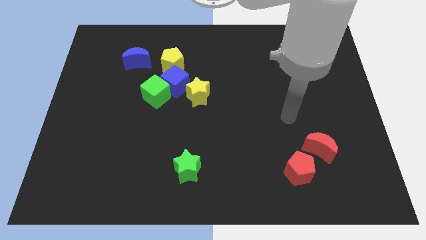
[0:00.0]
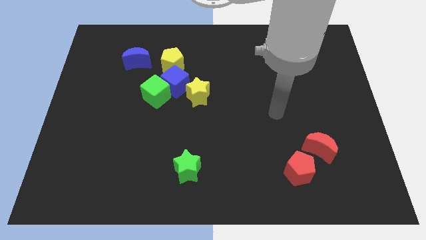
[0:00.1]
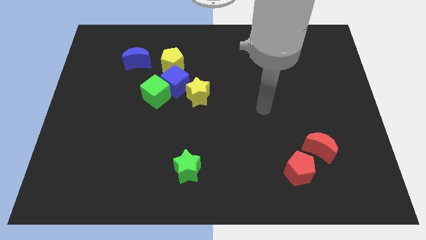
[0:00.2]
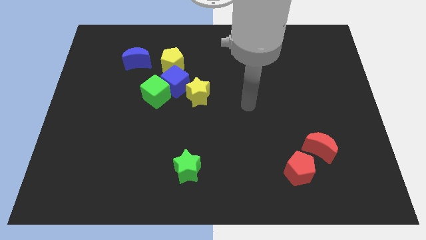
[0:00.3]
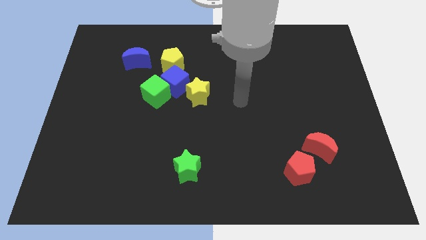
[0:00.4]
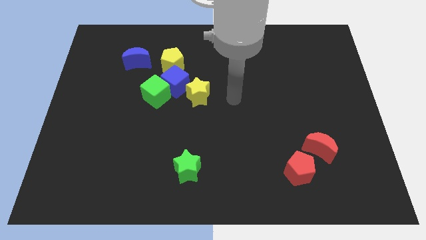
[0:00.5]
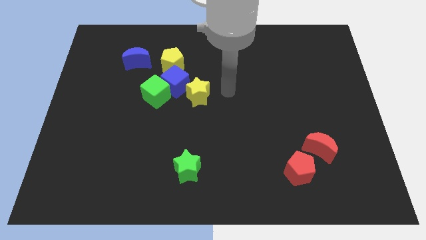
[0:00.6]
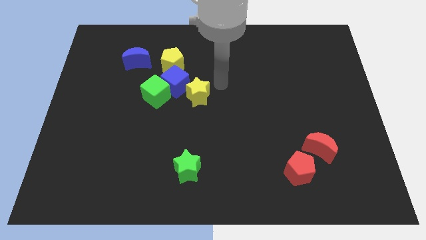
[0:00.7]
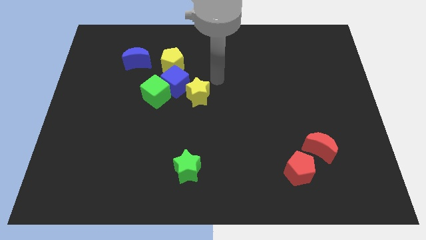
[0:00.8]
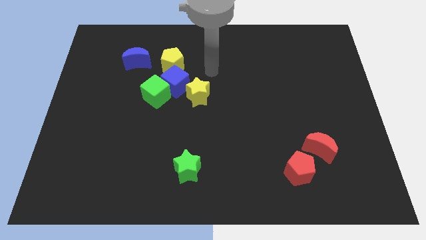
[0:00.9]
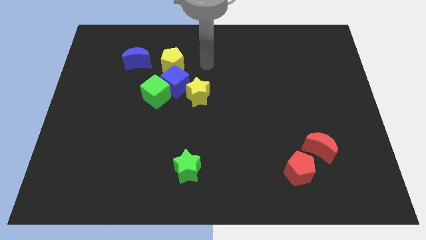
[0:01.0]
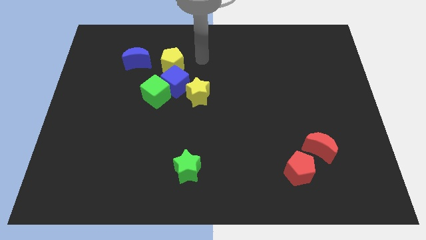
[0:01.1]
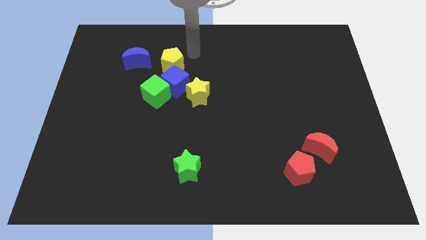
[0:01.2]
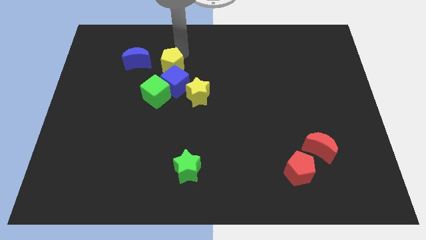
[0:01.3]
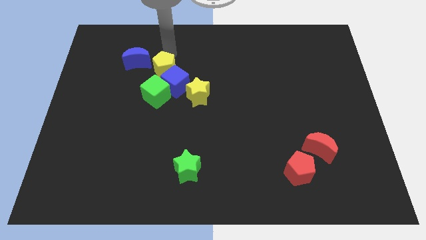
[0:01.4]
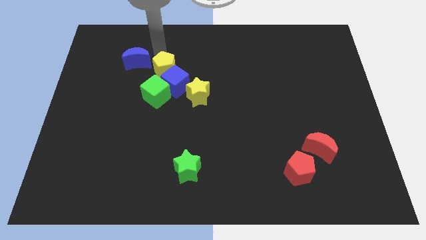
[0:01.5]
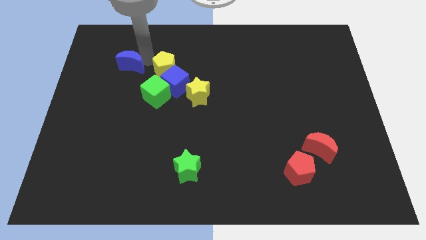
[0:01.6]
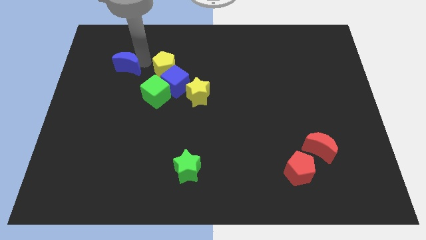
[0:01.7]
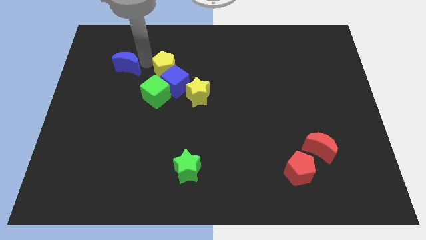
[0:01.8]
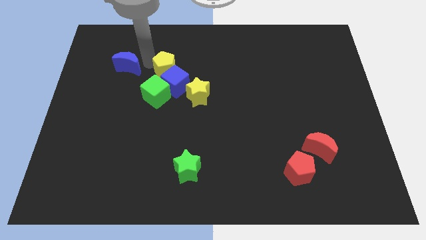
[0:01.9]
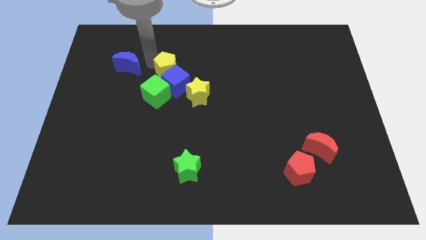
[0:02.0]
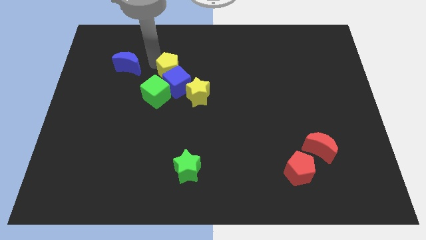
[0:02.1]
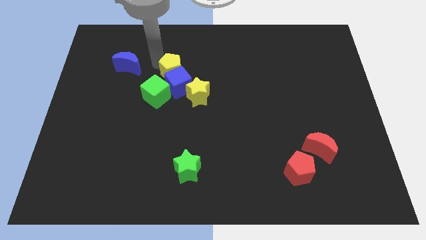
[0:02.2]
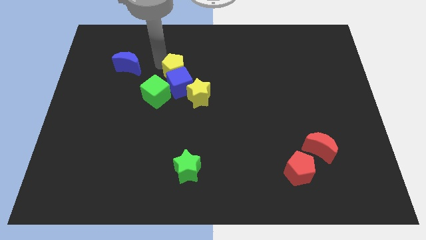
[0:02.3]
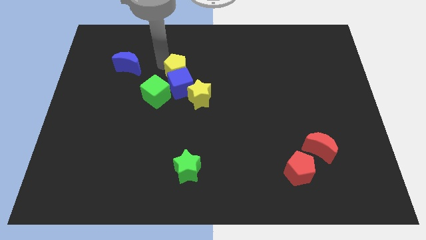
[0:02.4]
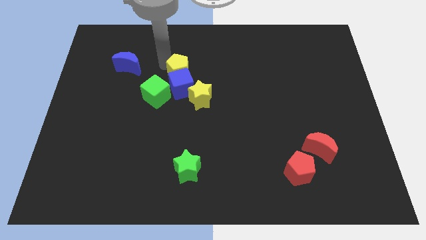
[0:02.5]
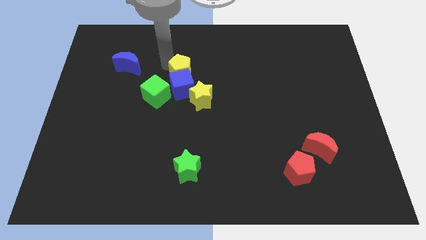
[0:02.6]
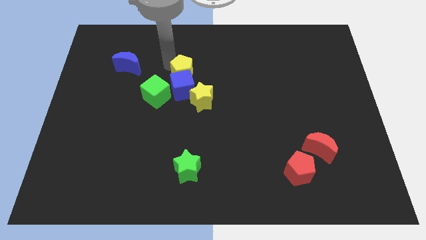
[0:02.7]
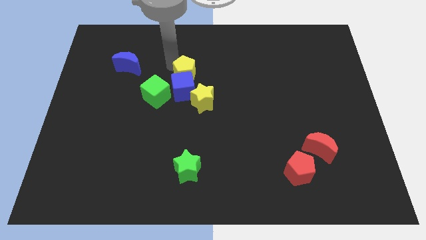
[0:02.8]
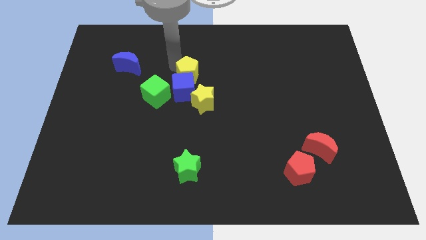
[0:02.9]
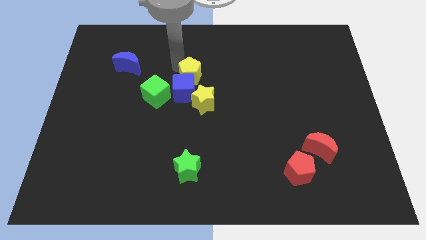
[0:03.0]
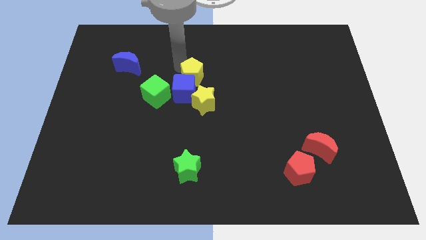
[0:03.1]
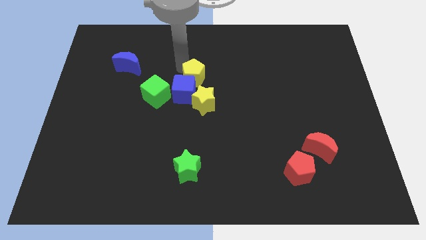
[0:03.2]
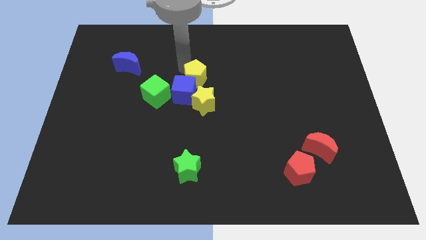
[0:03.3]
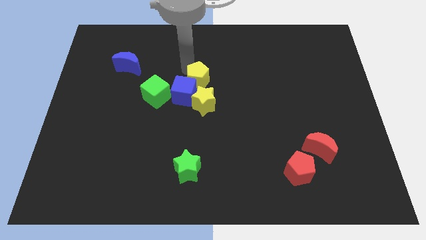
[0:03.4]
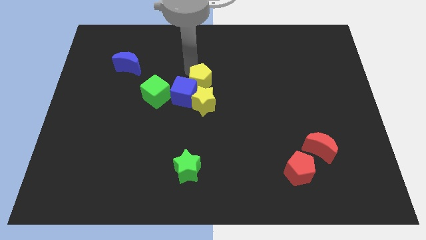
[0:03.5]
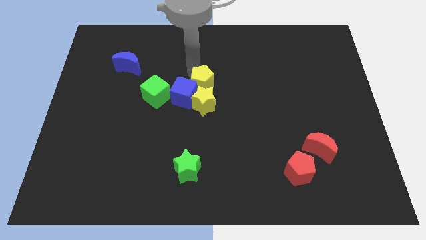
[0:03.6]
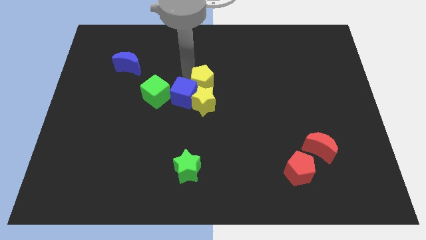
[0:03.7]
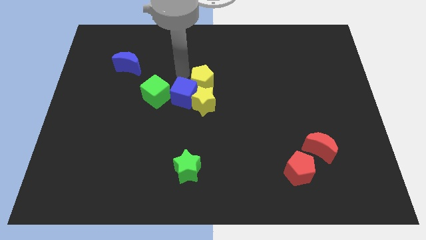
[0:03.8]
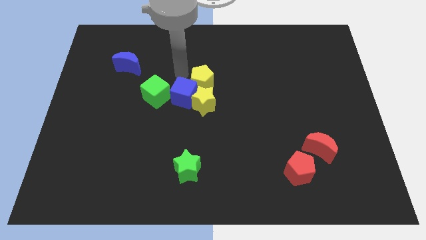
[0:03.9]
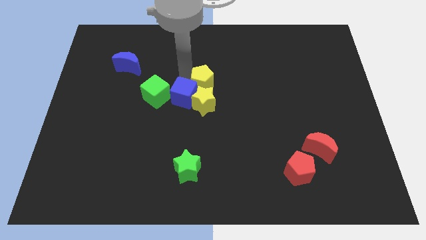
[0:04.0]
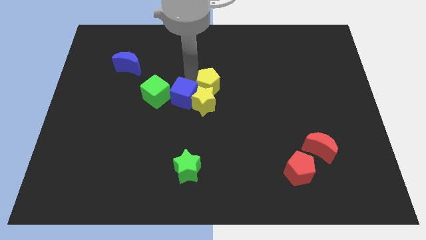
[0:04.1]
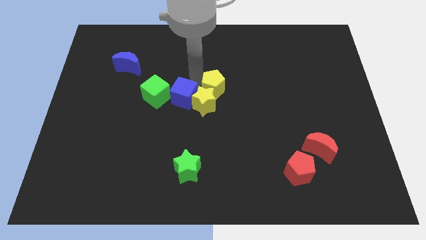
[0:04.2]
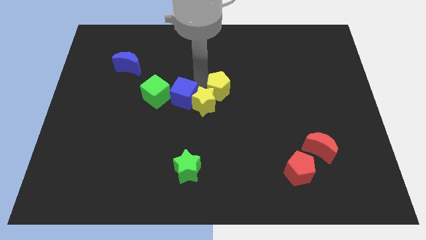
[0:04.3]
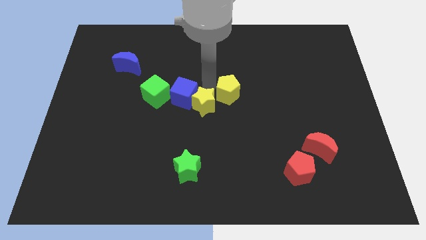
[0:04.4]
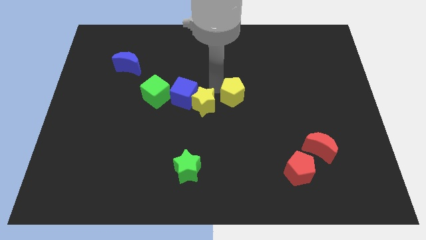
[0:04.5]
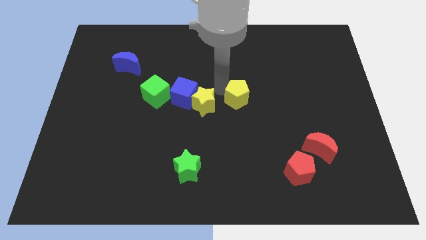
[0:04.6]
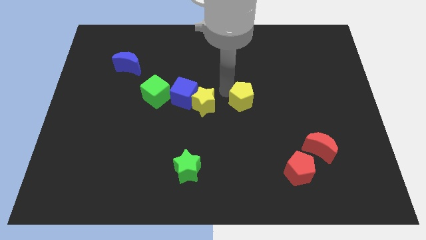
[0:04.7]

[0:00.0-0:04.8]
push the yellow pentagon downwards and right

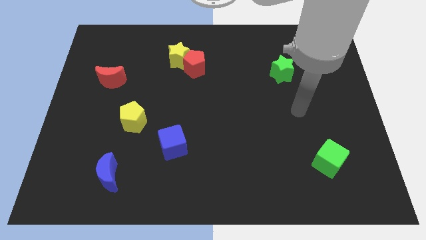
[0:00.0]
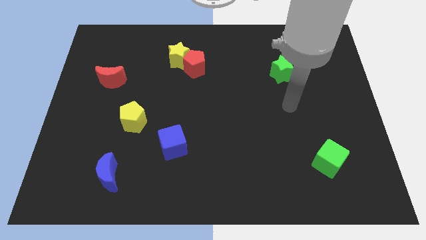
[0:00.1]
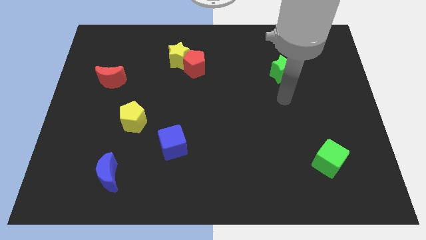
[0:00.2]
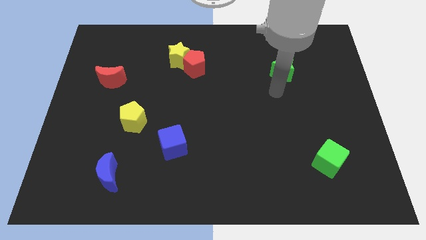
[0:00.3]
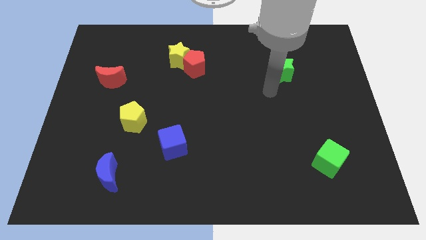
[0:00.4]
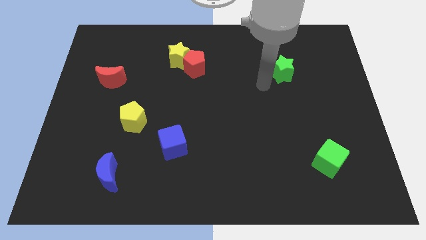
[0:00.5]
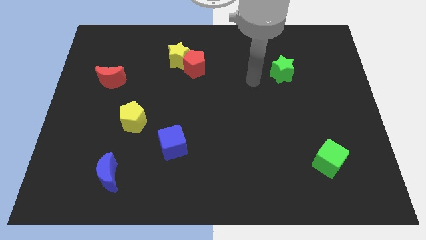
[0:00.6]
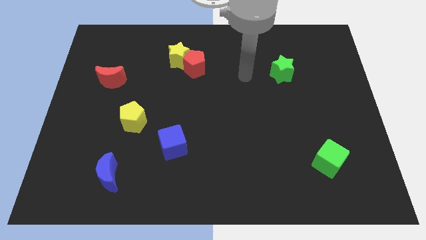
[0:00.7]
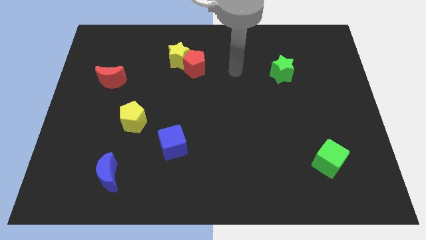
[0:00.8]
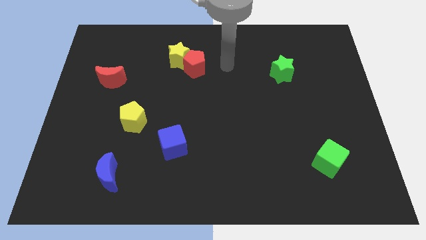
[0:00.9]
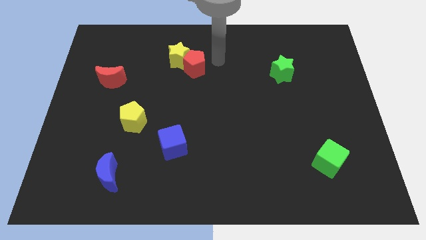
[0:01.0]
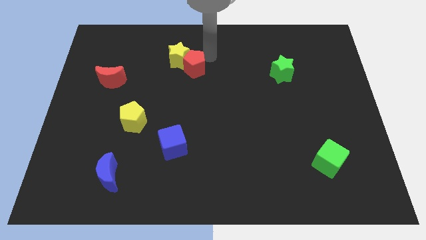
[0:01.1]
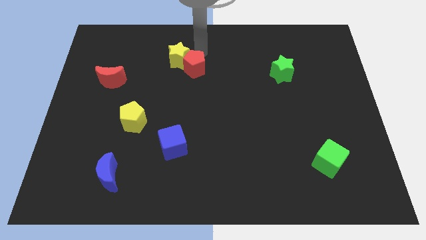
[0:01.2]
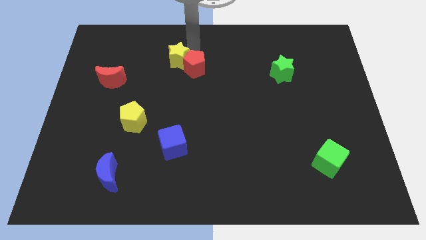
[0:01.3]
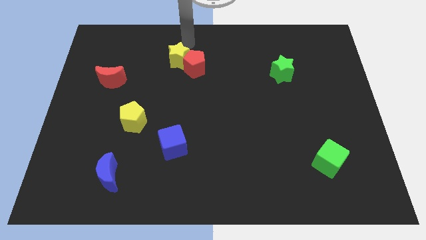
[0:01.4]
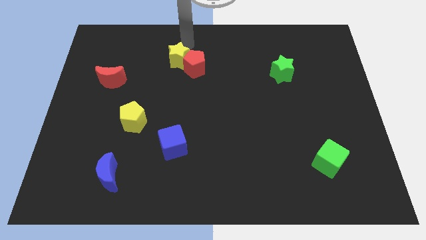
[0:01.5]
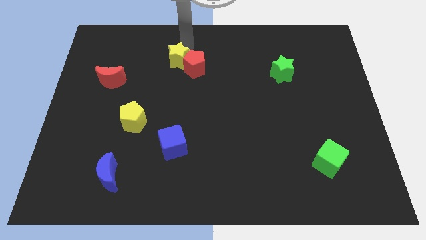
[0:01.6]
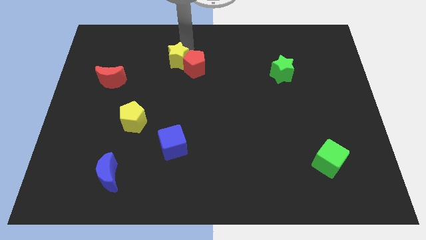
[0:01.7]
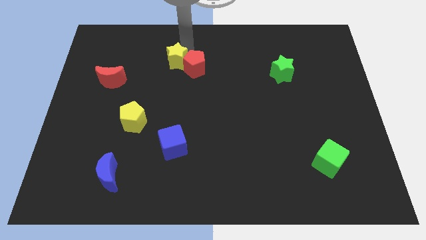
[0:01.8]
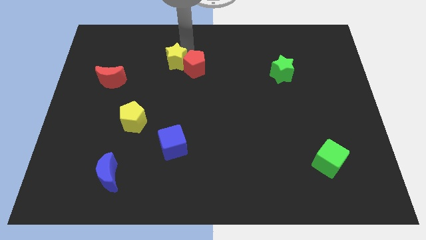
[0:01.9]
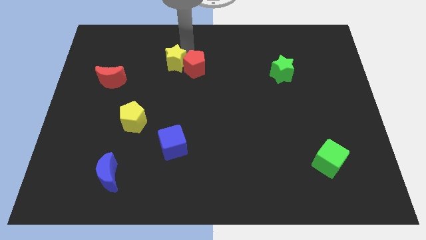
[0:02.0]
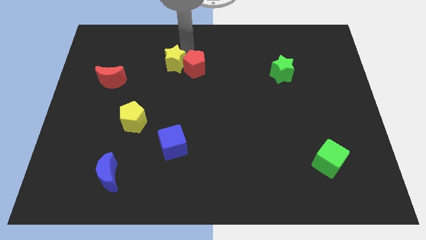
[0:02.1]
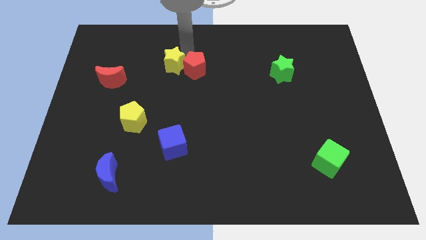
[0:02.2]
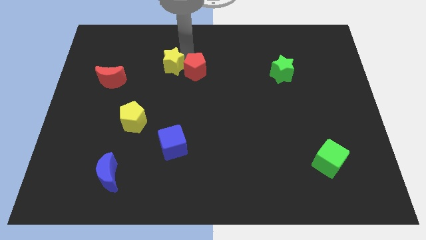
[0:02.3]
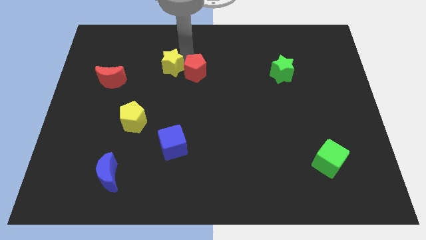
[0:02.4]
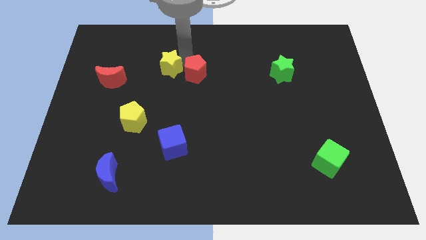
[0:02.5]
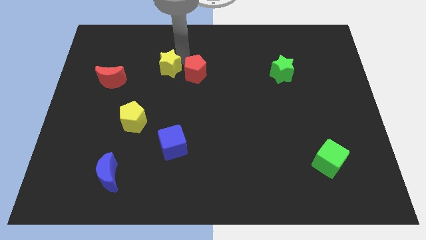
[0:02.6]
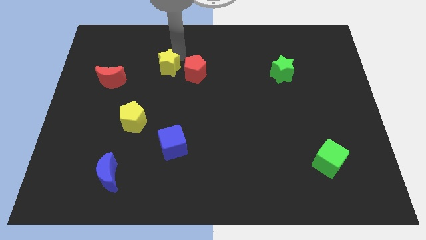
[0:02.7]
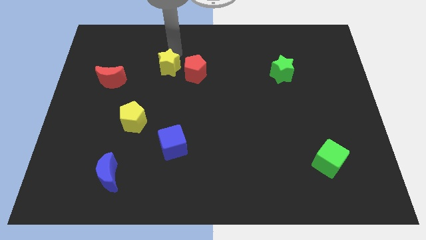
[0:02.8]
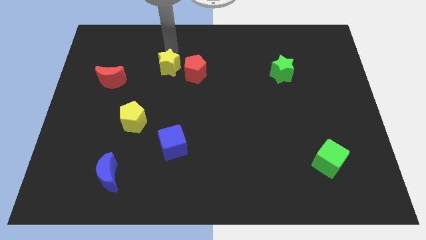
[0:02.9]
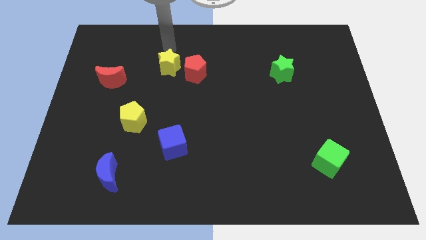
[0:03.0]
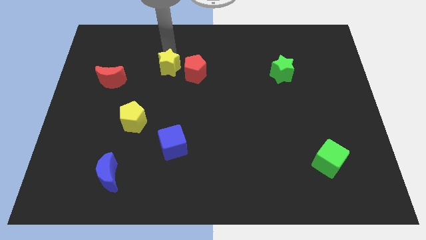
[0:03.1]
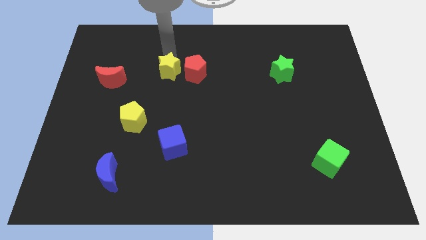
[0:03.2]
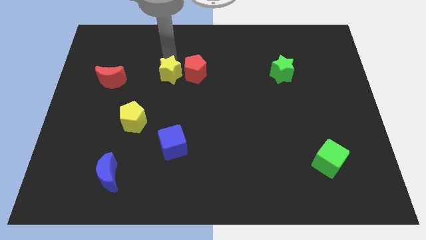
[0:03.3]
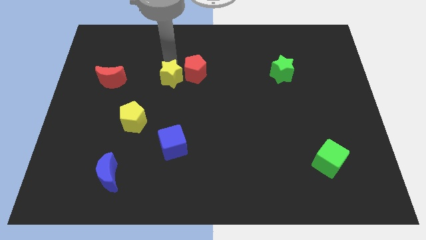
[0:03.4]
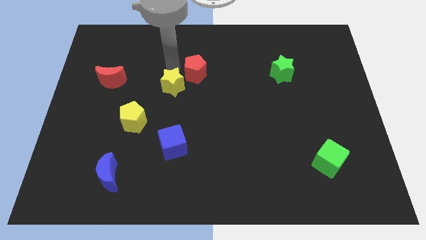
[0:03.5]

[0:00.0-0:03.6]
slightly push the yellow star down
